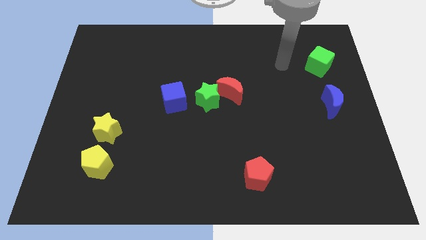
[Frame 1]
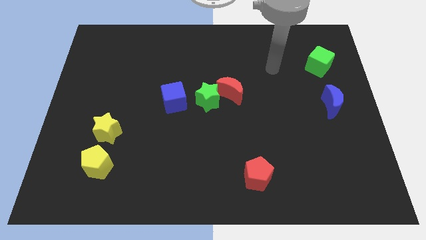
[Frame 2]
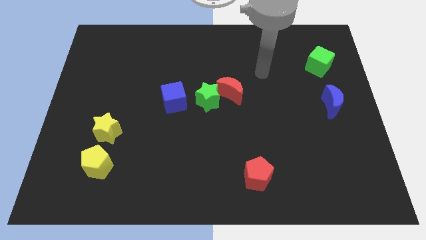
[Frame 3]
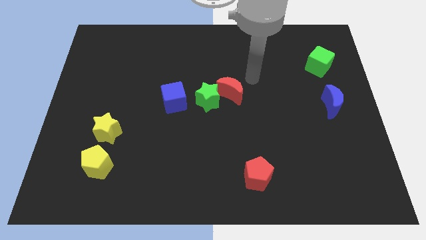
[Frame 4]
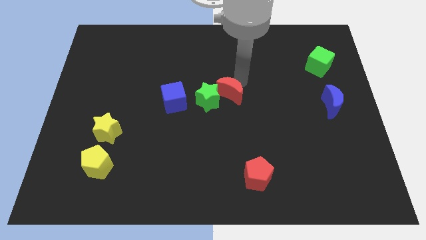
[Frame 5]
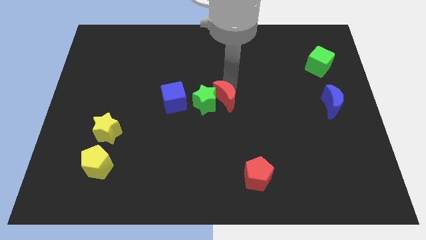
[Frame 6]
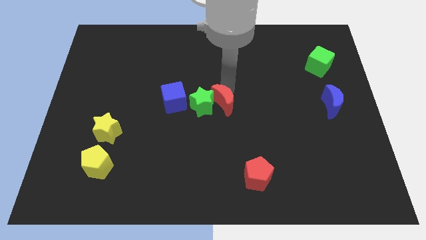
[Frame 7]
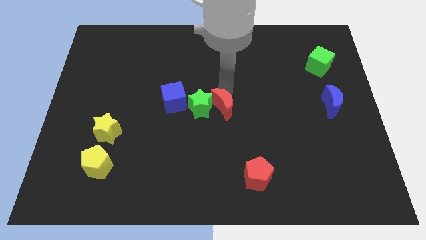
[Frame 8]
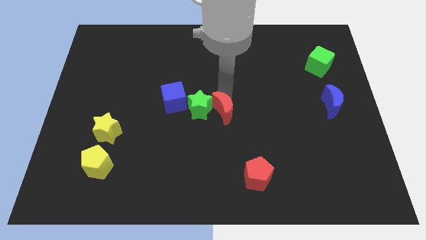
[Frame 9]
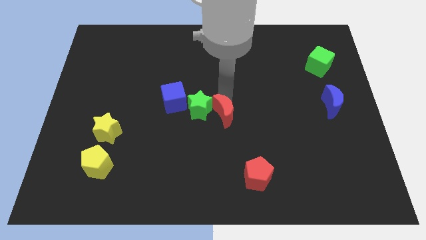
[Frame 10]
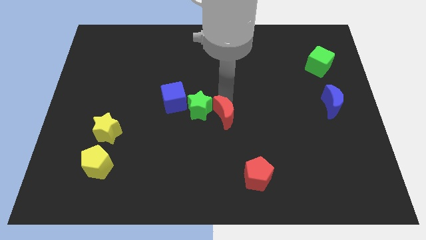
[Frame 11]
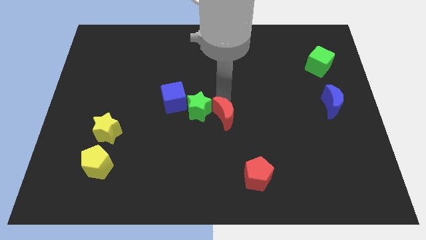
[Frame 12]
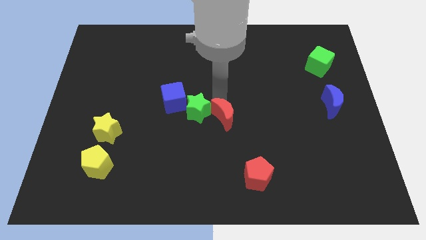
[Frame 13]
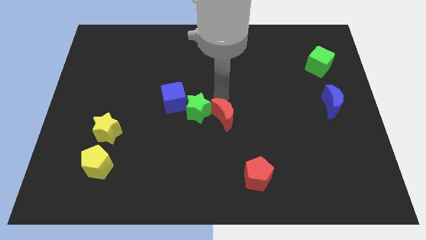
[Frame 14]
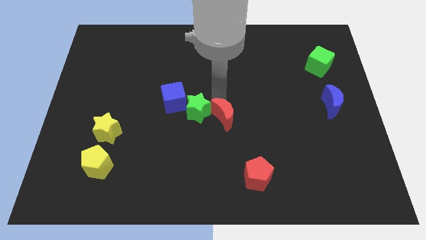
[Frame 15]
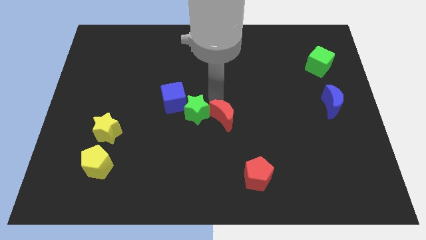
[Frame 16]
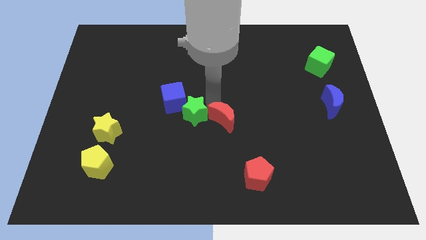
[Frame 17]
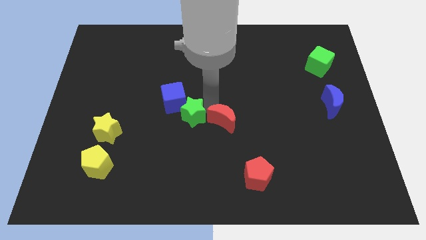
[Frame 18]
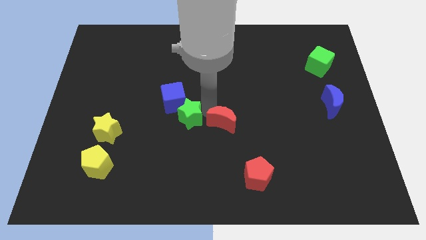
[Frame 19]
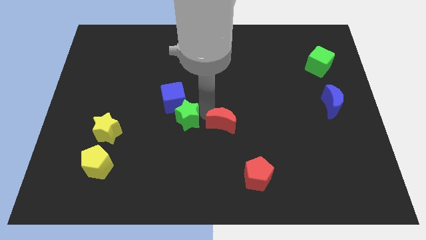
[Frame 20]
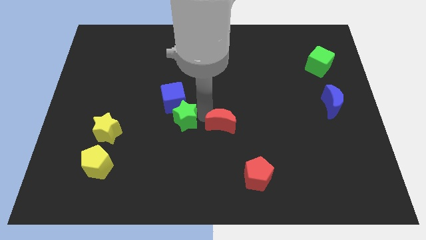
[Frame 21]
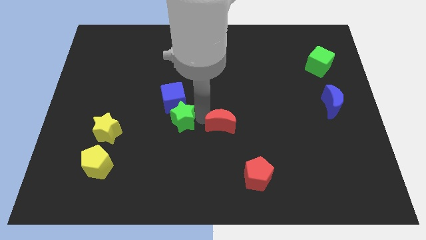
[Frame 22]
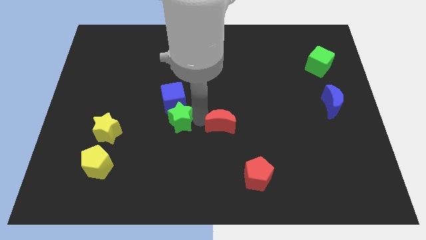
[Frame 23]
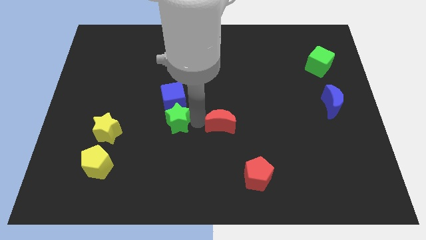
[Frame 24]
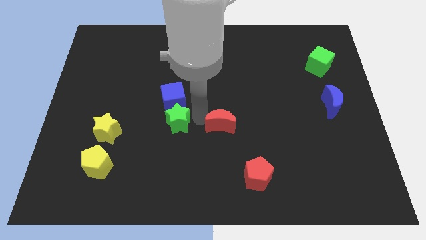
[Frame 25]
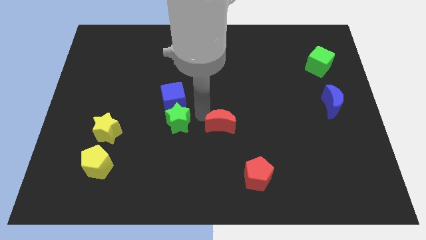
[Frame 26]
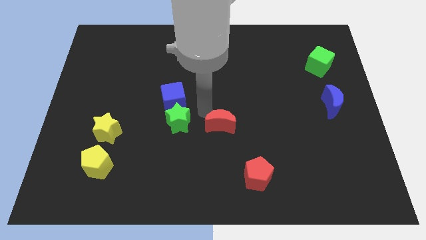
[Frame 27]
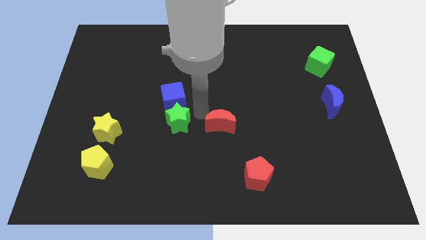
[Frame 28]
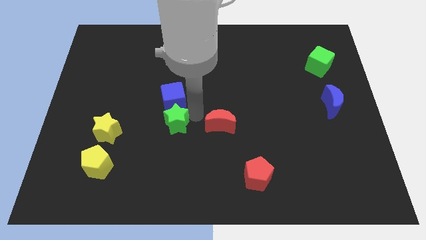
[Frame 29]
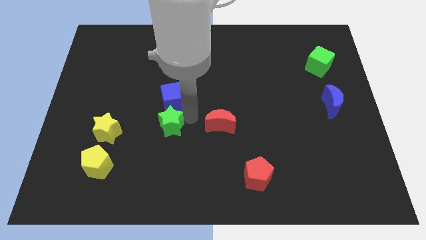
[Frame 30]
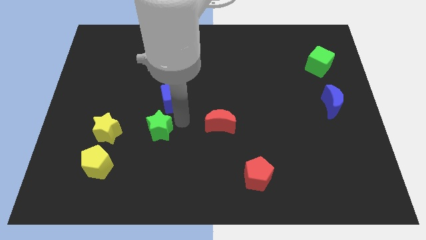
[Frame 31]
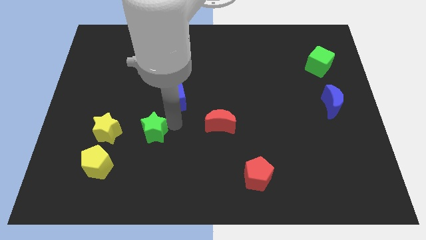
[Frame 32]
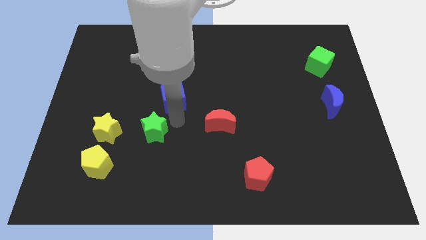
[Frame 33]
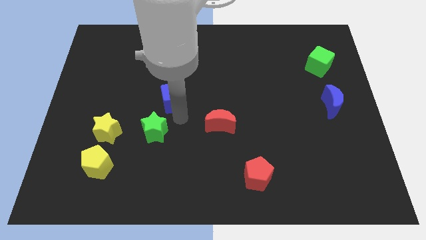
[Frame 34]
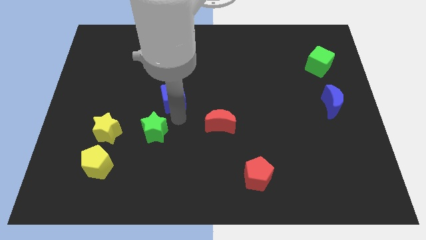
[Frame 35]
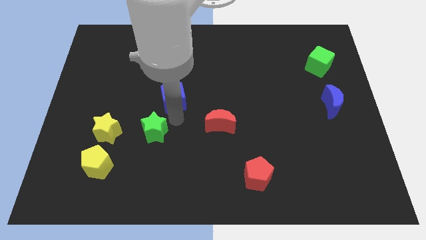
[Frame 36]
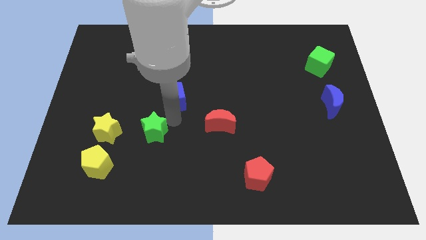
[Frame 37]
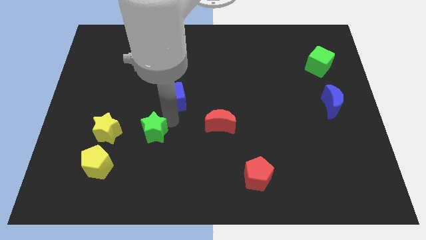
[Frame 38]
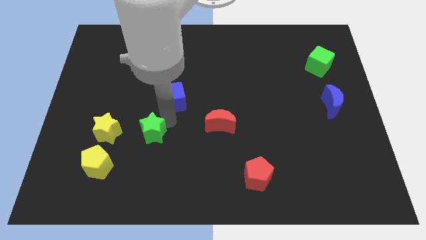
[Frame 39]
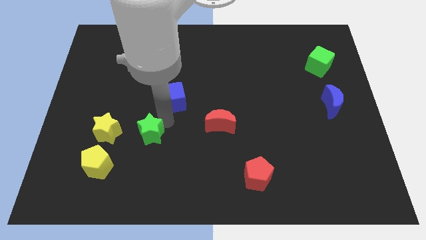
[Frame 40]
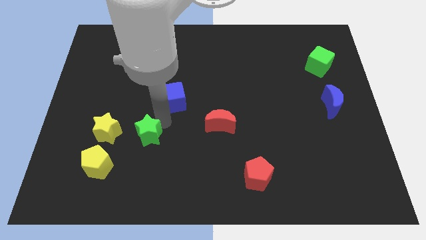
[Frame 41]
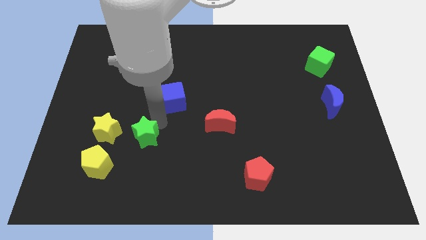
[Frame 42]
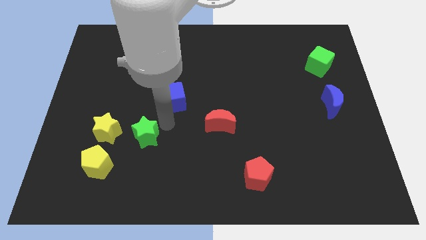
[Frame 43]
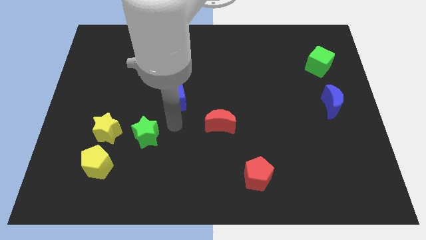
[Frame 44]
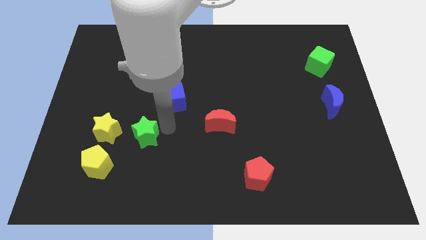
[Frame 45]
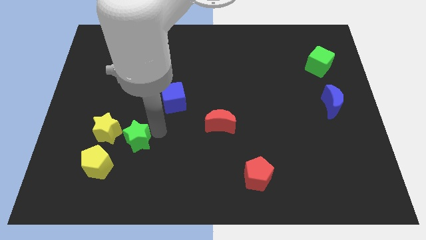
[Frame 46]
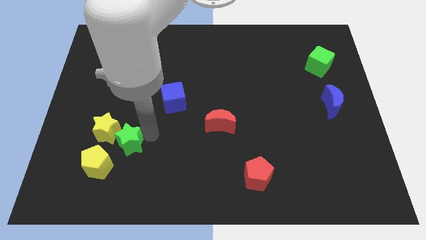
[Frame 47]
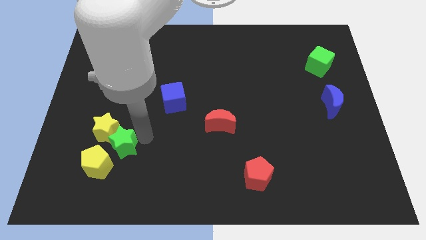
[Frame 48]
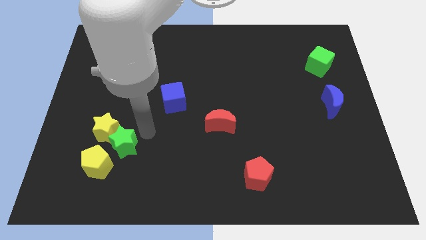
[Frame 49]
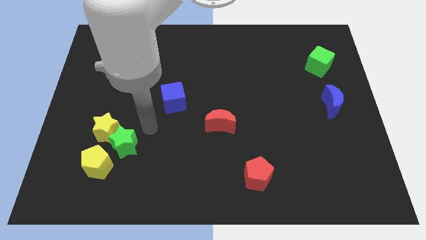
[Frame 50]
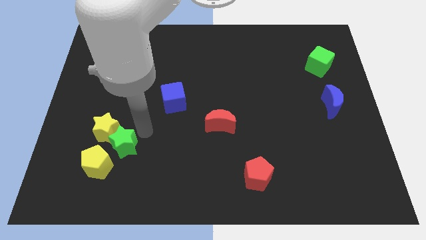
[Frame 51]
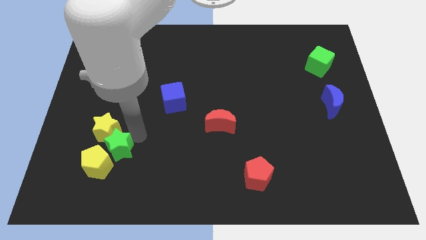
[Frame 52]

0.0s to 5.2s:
put the green star close to the yellow pentagon

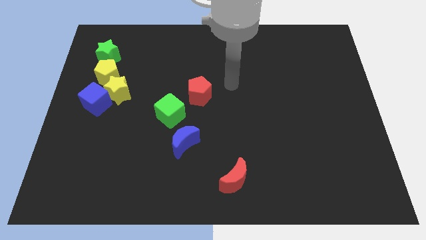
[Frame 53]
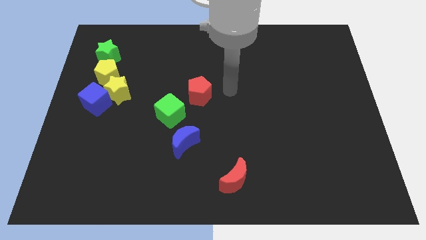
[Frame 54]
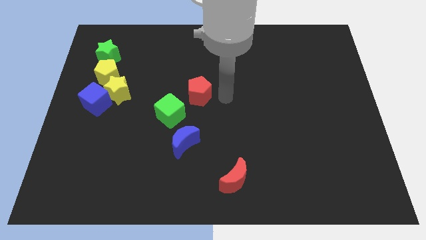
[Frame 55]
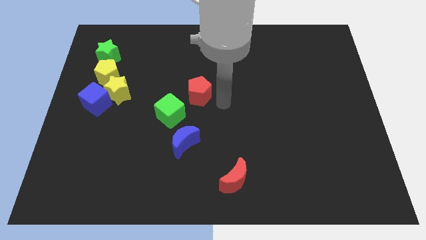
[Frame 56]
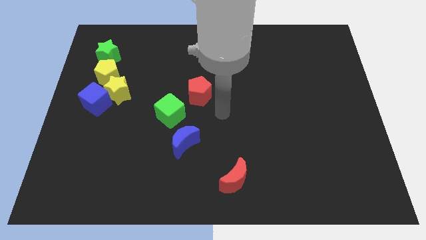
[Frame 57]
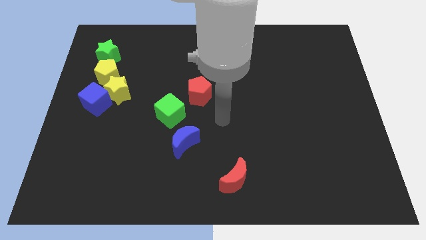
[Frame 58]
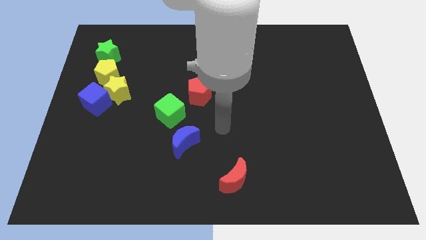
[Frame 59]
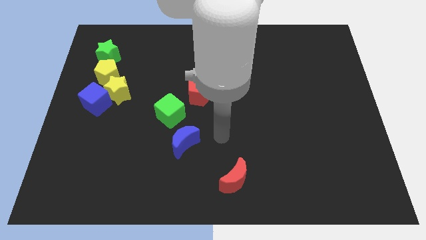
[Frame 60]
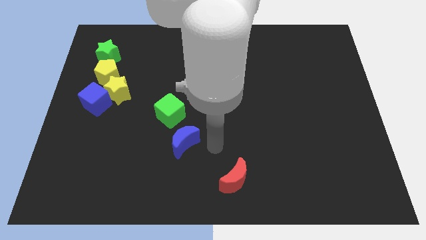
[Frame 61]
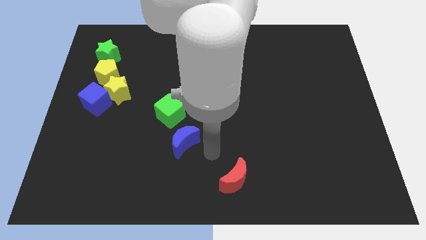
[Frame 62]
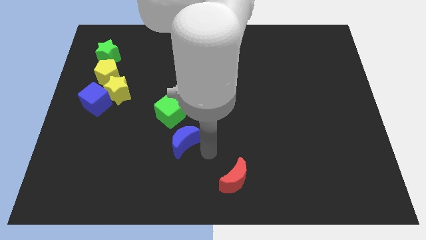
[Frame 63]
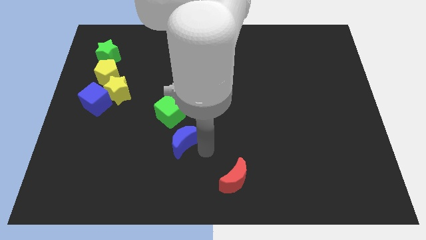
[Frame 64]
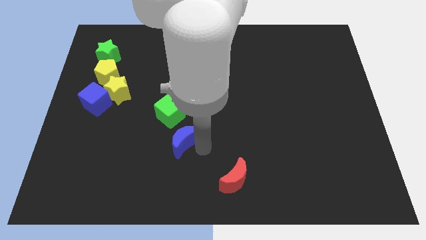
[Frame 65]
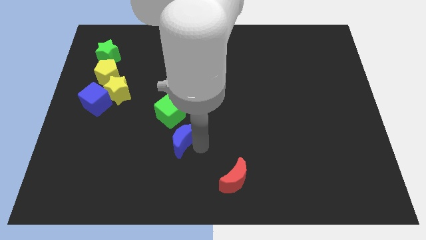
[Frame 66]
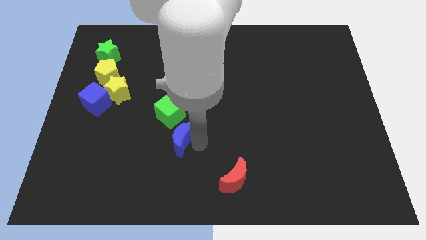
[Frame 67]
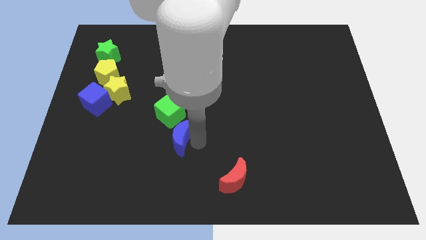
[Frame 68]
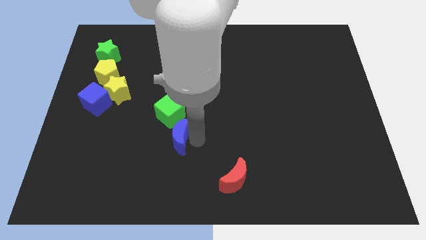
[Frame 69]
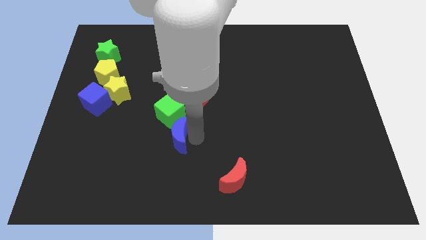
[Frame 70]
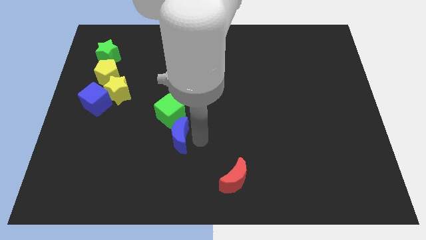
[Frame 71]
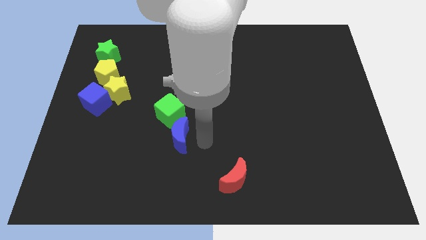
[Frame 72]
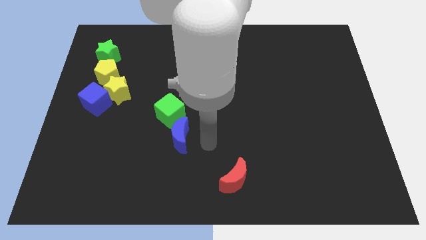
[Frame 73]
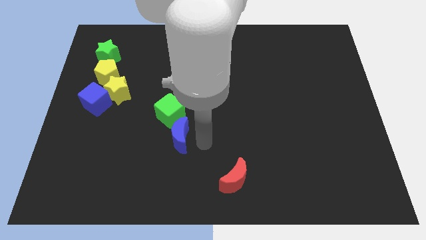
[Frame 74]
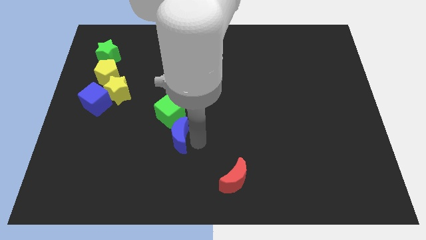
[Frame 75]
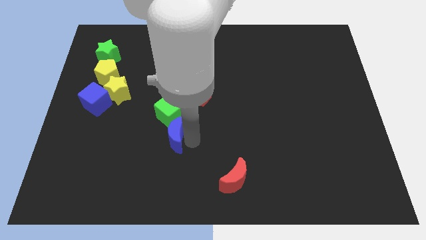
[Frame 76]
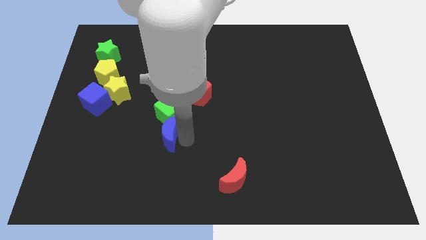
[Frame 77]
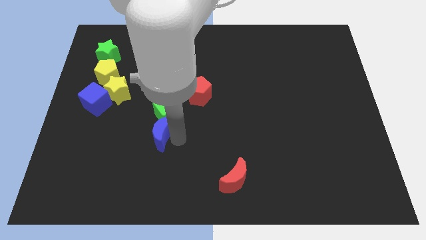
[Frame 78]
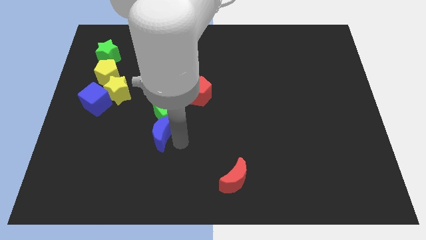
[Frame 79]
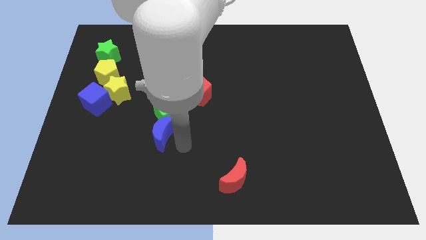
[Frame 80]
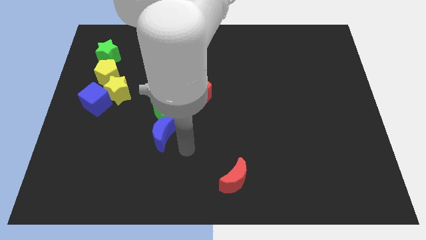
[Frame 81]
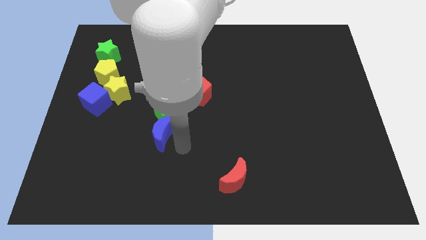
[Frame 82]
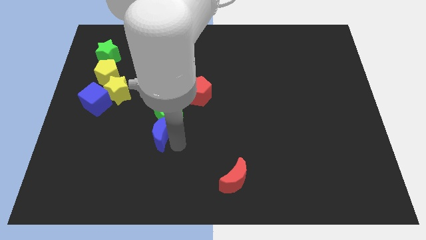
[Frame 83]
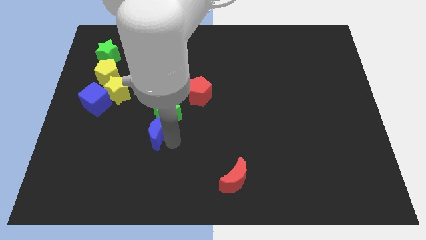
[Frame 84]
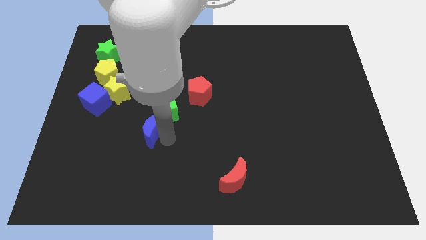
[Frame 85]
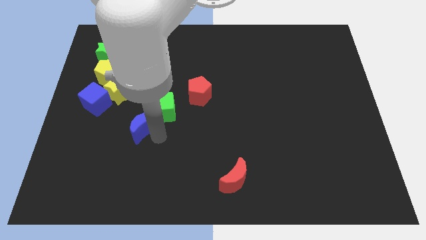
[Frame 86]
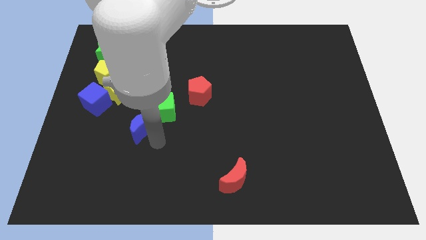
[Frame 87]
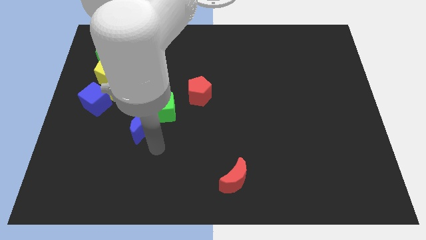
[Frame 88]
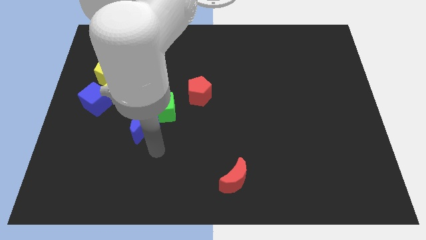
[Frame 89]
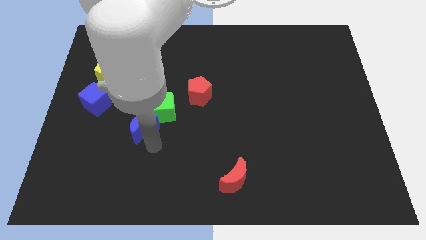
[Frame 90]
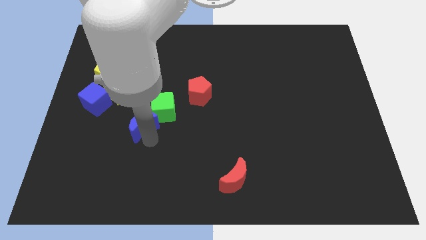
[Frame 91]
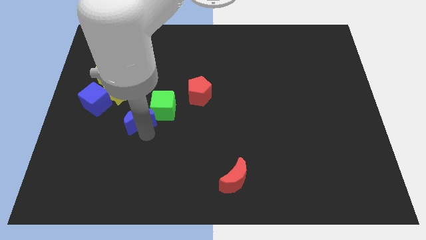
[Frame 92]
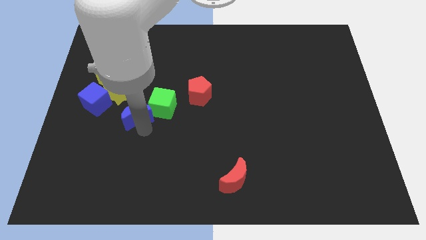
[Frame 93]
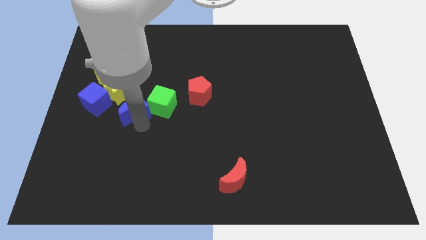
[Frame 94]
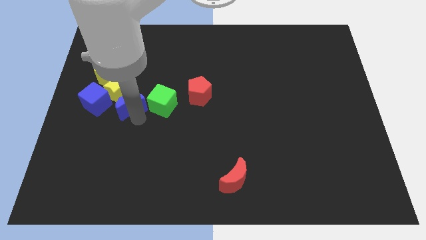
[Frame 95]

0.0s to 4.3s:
slide the blue moon close to the yellow star
